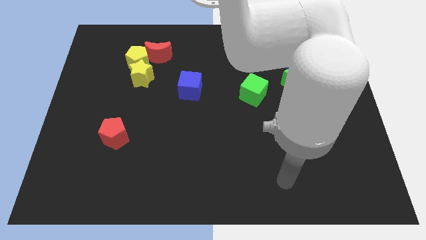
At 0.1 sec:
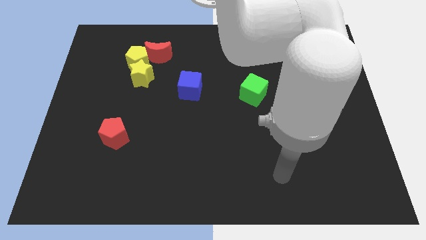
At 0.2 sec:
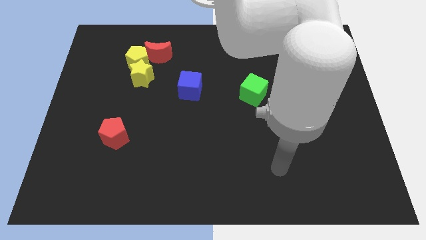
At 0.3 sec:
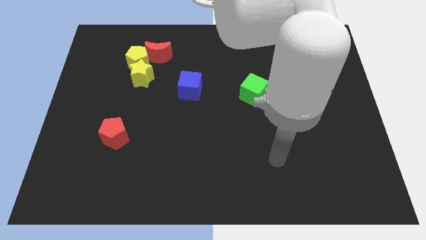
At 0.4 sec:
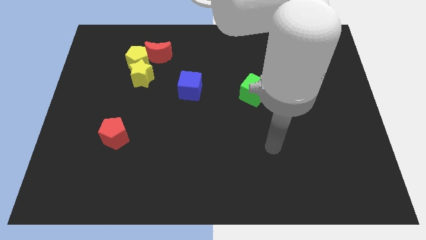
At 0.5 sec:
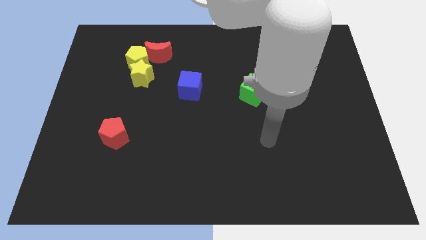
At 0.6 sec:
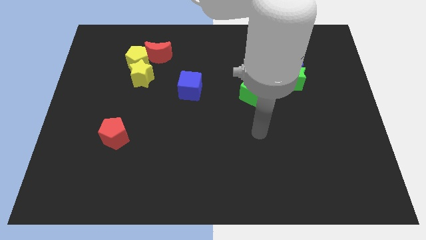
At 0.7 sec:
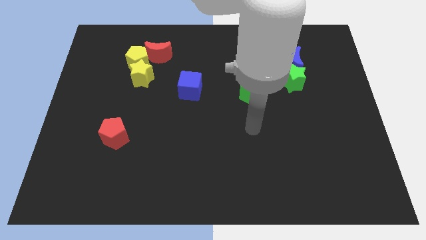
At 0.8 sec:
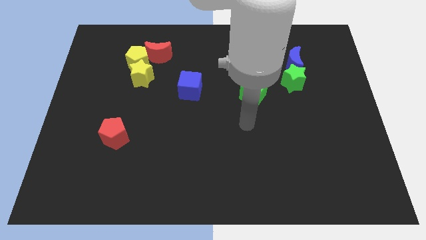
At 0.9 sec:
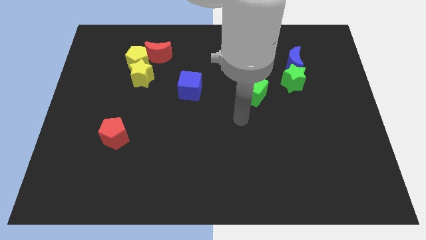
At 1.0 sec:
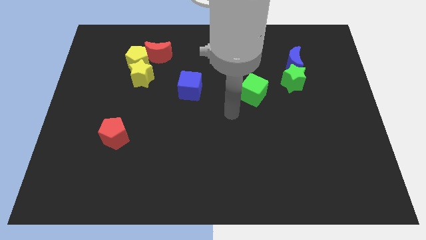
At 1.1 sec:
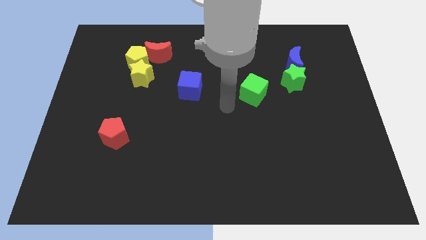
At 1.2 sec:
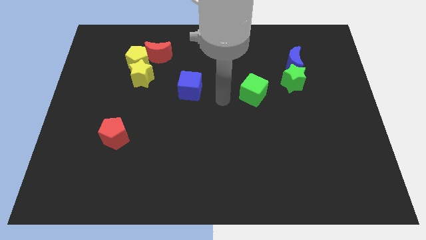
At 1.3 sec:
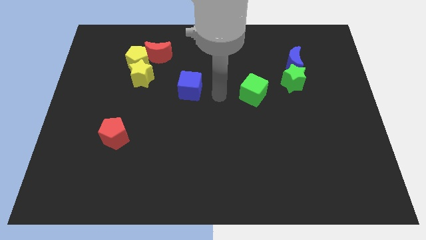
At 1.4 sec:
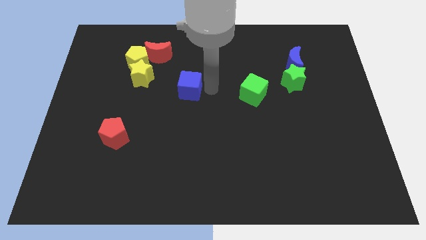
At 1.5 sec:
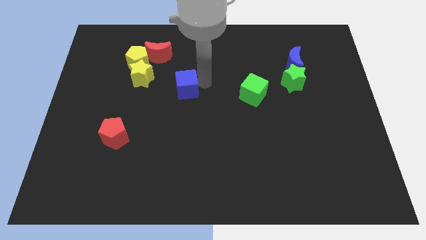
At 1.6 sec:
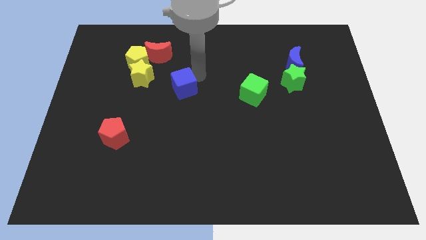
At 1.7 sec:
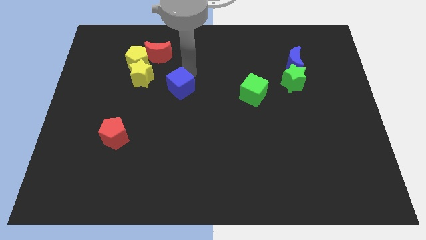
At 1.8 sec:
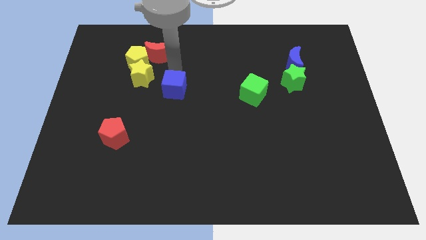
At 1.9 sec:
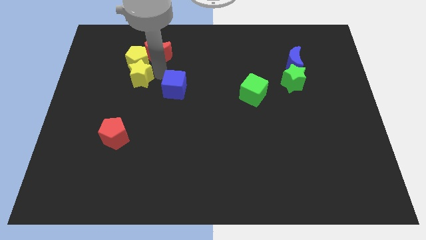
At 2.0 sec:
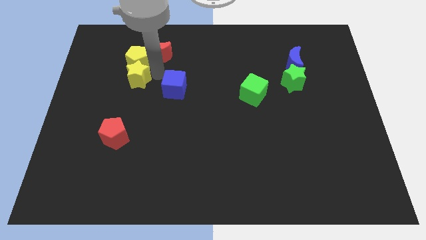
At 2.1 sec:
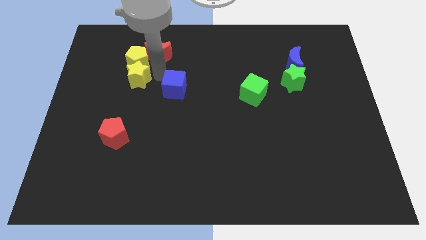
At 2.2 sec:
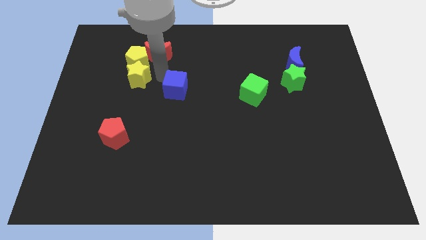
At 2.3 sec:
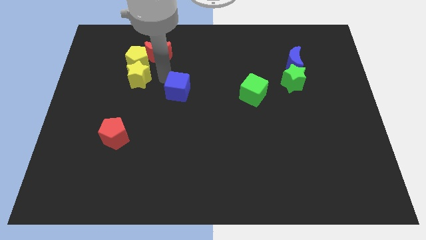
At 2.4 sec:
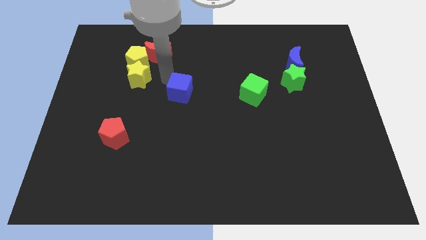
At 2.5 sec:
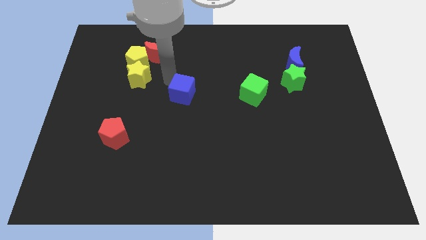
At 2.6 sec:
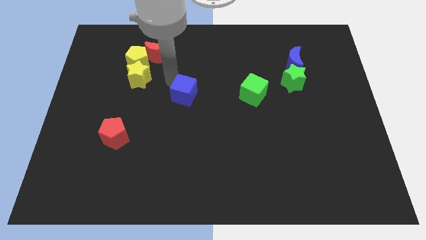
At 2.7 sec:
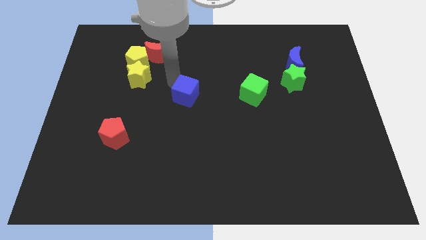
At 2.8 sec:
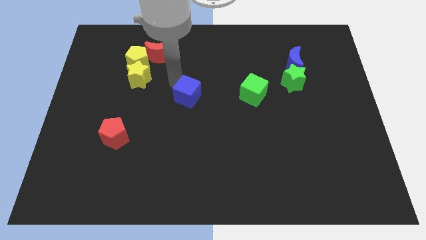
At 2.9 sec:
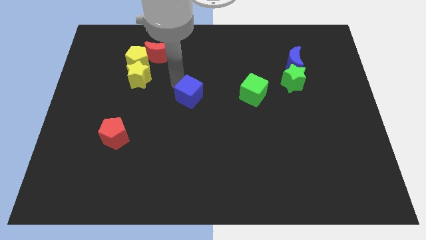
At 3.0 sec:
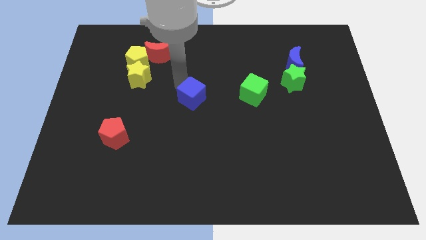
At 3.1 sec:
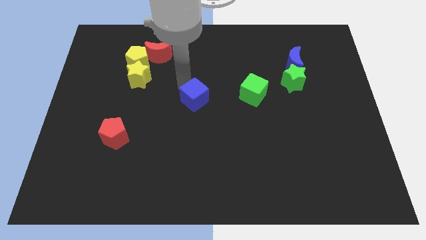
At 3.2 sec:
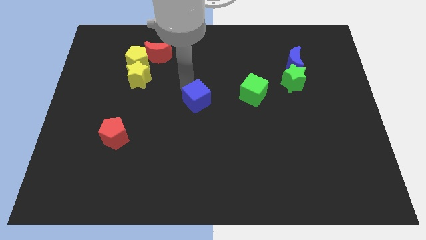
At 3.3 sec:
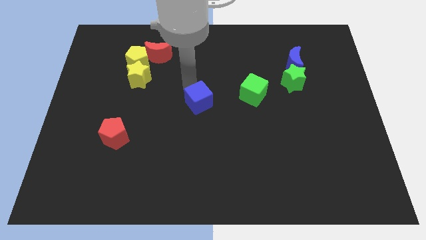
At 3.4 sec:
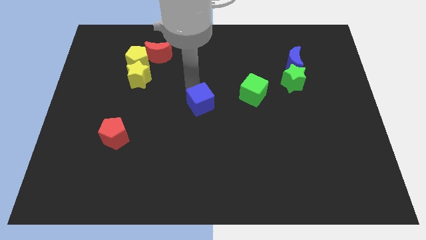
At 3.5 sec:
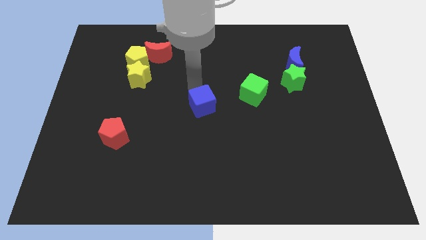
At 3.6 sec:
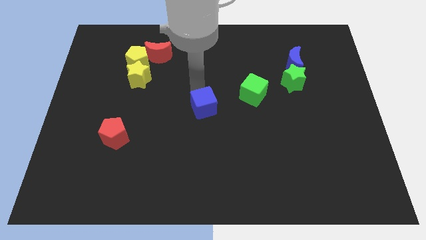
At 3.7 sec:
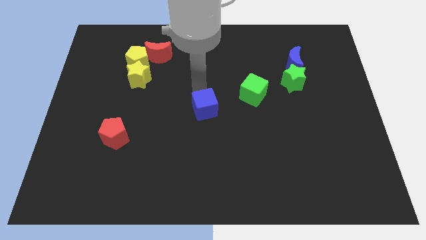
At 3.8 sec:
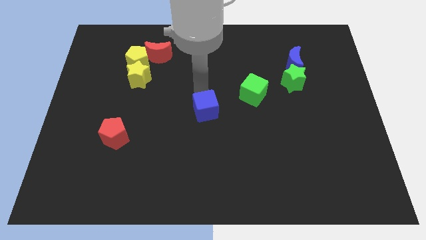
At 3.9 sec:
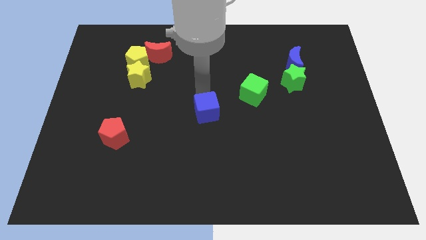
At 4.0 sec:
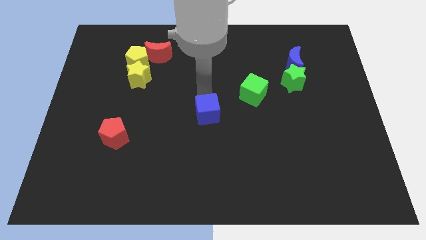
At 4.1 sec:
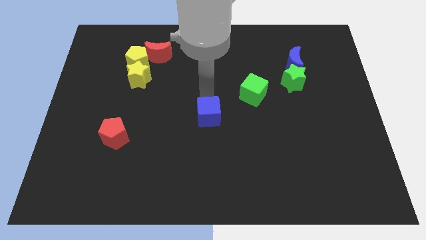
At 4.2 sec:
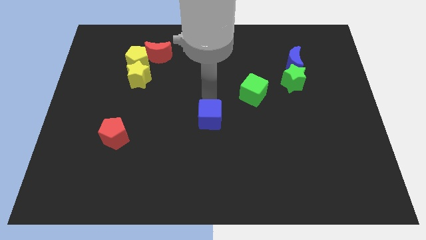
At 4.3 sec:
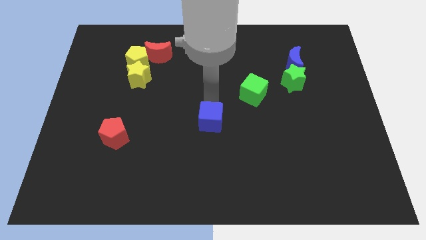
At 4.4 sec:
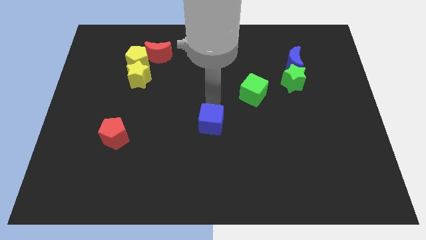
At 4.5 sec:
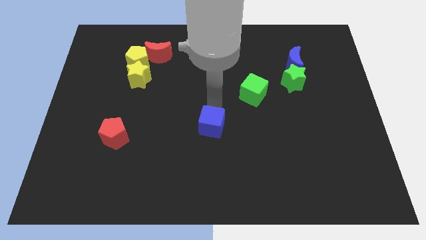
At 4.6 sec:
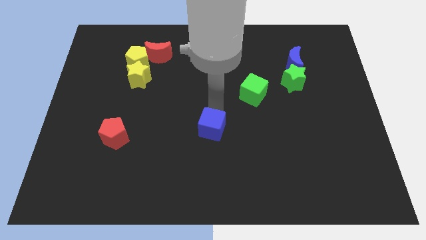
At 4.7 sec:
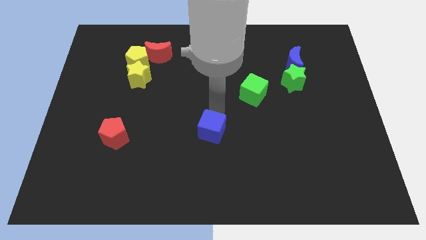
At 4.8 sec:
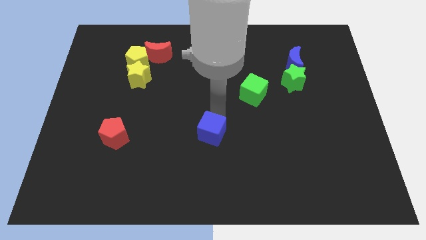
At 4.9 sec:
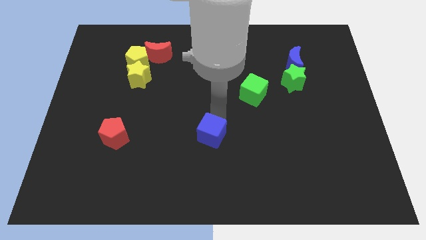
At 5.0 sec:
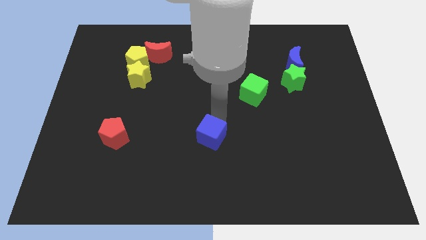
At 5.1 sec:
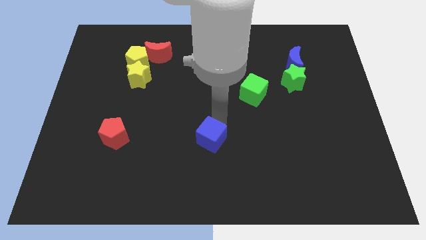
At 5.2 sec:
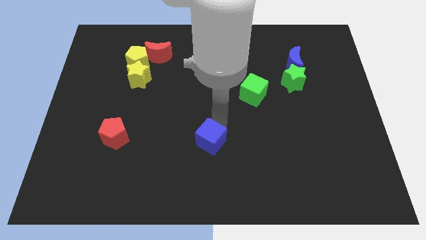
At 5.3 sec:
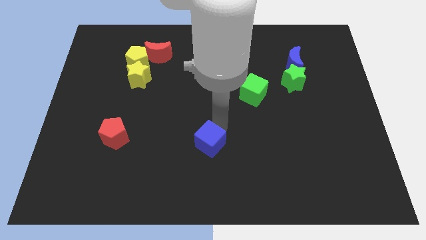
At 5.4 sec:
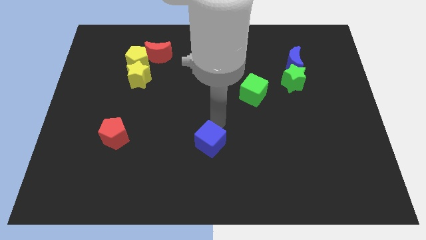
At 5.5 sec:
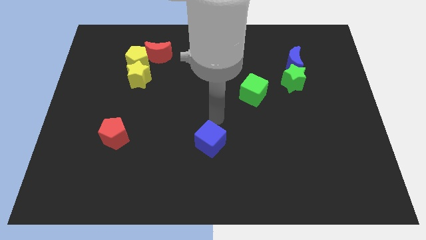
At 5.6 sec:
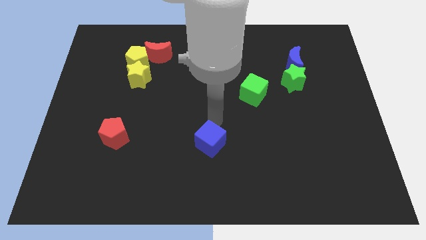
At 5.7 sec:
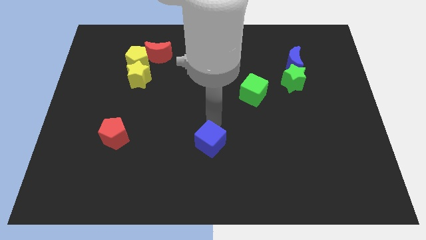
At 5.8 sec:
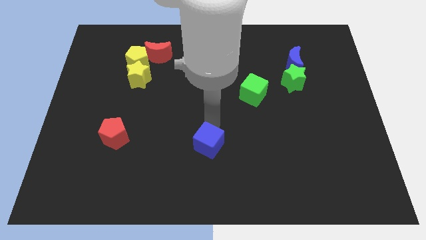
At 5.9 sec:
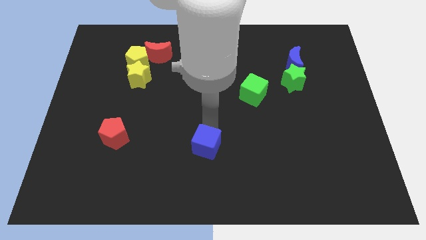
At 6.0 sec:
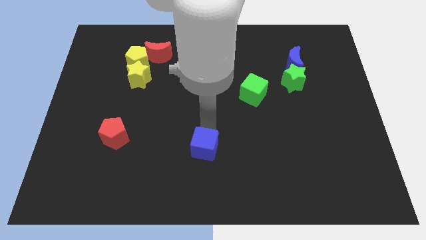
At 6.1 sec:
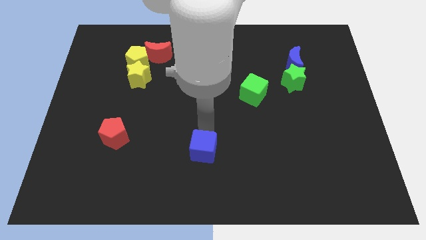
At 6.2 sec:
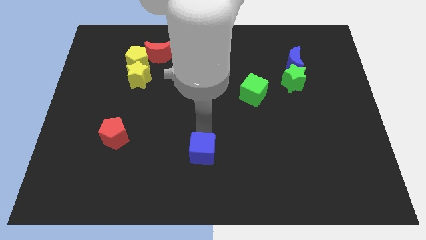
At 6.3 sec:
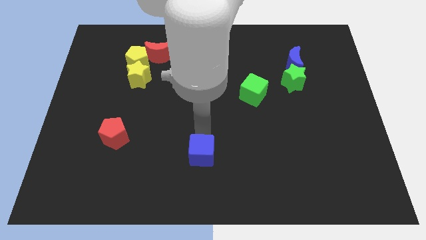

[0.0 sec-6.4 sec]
move the blue cube to the bottom

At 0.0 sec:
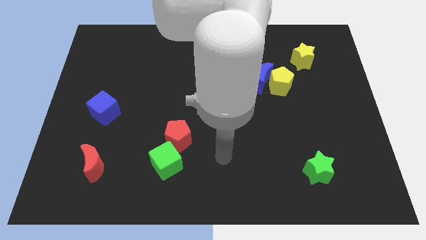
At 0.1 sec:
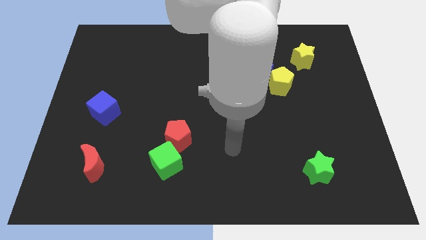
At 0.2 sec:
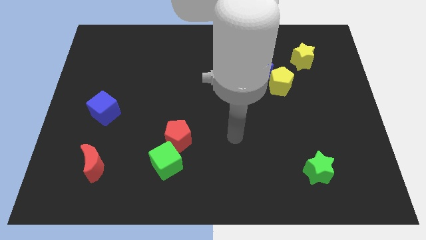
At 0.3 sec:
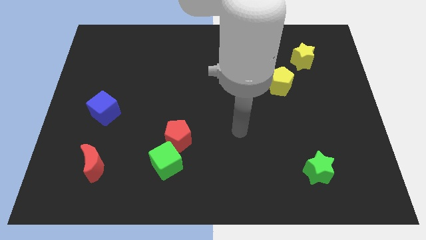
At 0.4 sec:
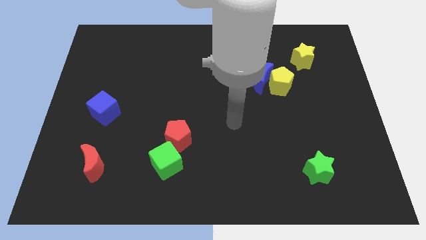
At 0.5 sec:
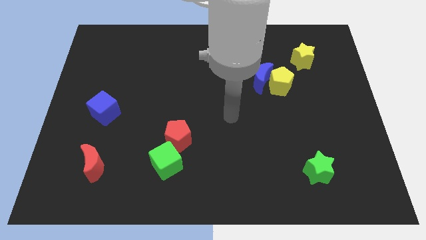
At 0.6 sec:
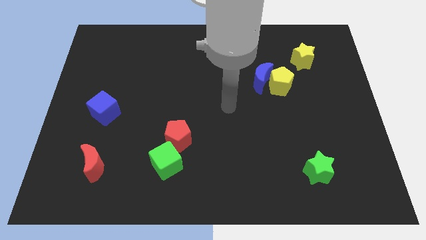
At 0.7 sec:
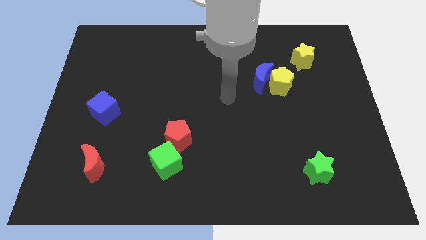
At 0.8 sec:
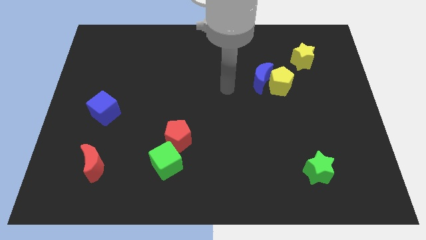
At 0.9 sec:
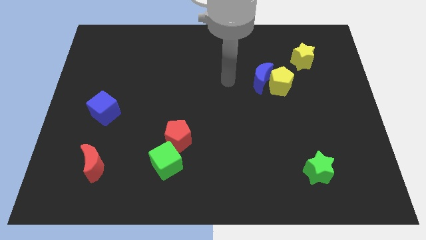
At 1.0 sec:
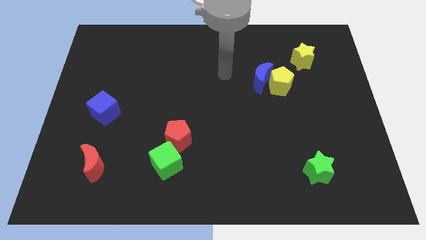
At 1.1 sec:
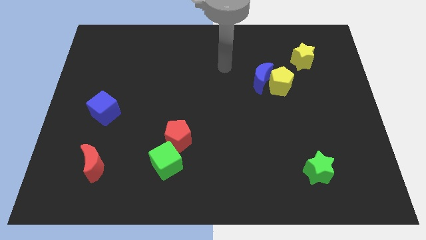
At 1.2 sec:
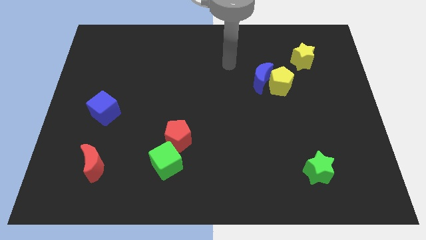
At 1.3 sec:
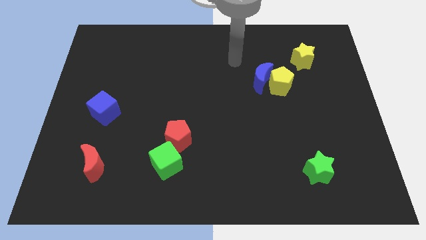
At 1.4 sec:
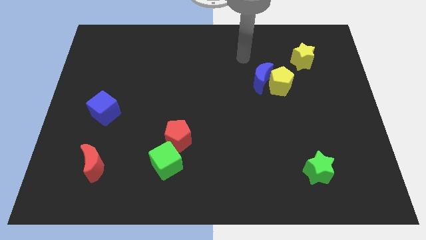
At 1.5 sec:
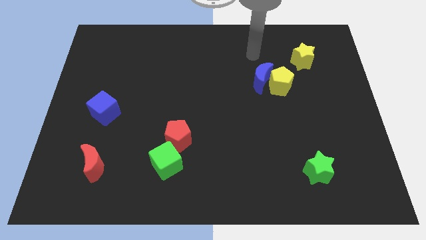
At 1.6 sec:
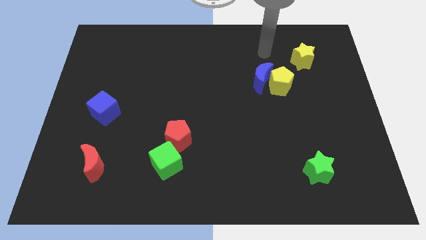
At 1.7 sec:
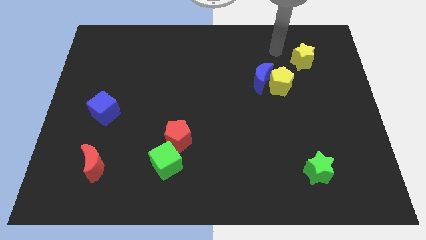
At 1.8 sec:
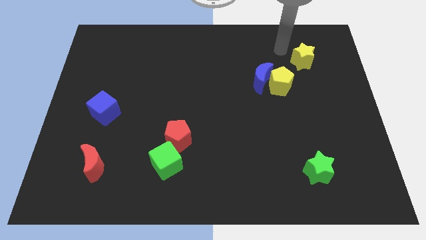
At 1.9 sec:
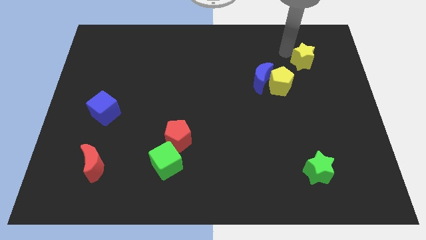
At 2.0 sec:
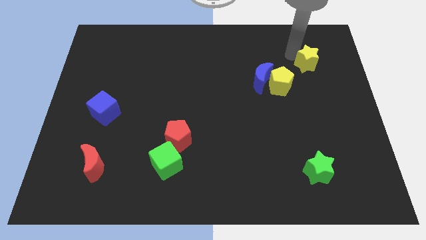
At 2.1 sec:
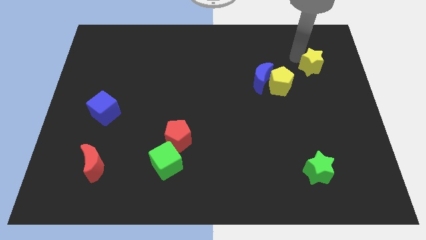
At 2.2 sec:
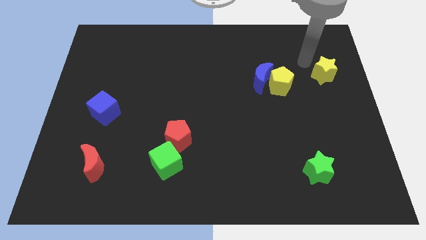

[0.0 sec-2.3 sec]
move the yellow star to the right side of the board
